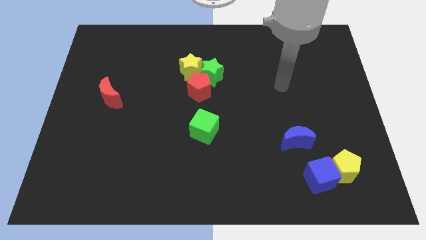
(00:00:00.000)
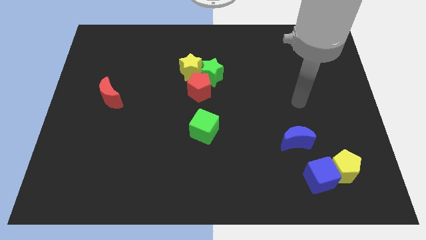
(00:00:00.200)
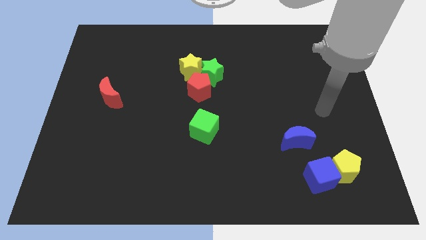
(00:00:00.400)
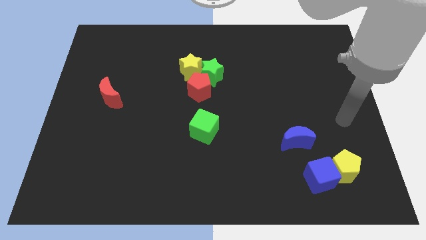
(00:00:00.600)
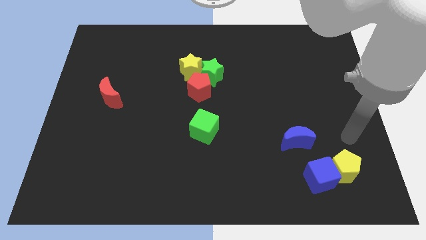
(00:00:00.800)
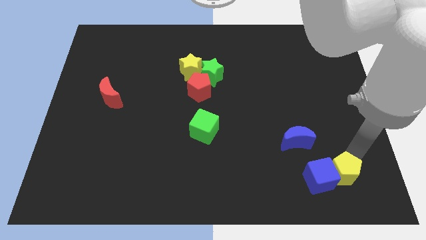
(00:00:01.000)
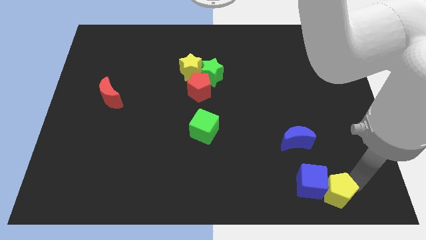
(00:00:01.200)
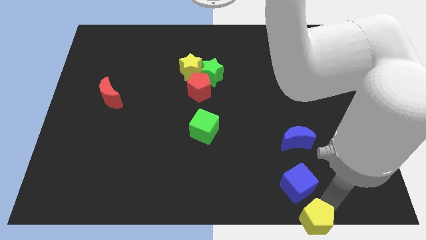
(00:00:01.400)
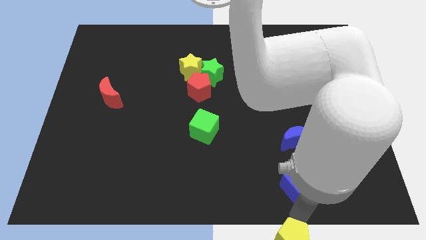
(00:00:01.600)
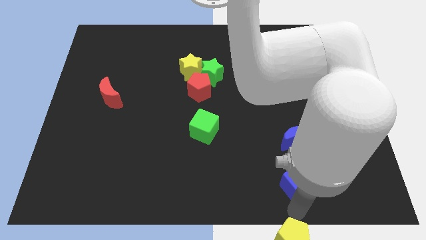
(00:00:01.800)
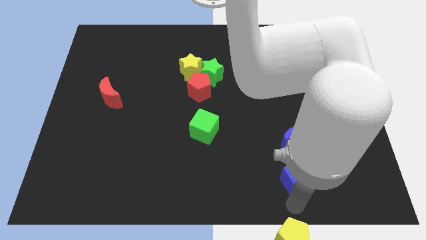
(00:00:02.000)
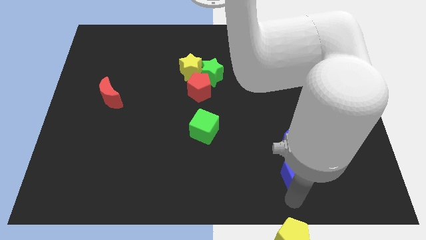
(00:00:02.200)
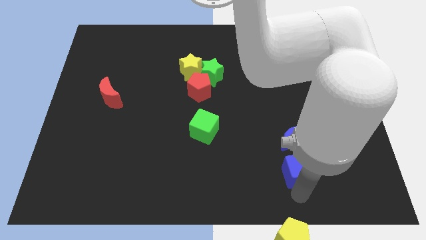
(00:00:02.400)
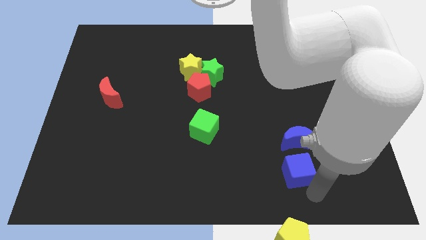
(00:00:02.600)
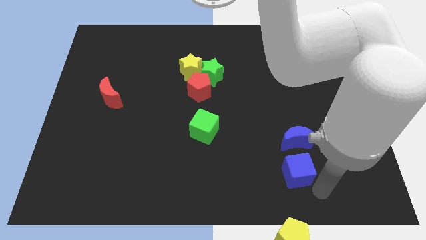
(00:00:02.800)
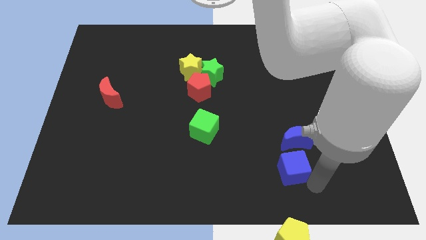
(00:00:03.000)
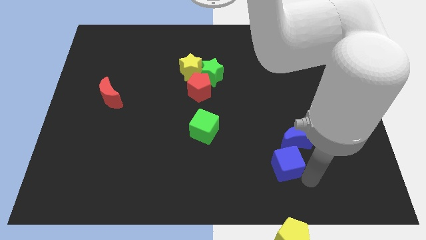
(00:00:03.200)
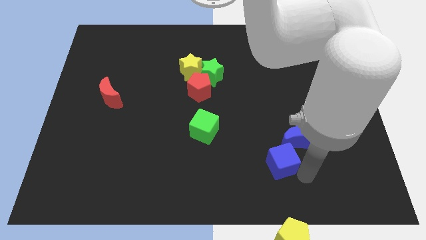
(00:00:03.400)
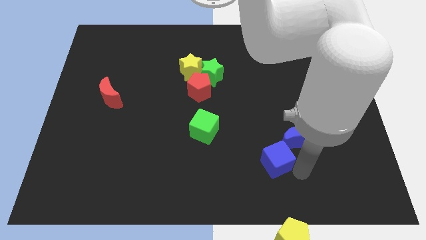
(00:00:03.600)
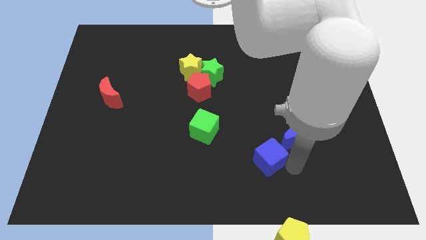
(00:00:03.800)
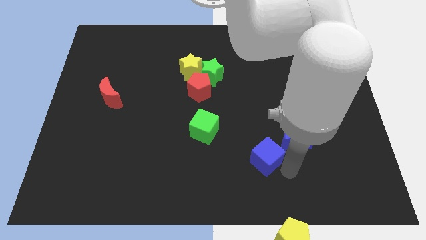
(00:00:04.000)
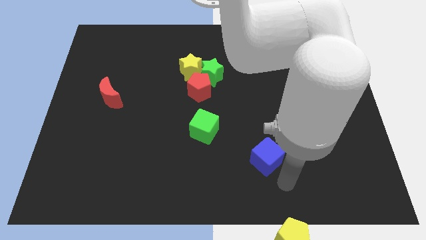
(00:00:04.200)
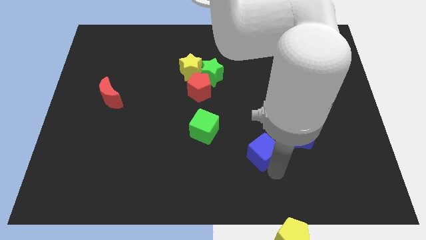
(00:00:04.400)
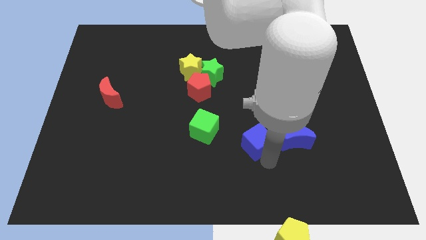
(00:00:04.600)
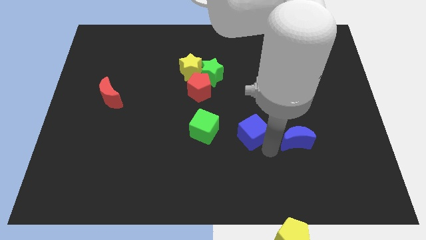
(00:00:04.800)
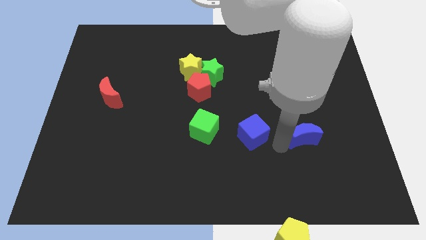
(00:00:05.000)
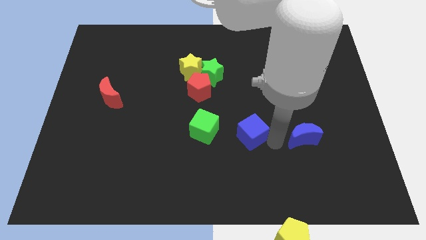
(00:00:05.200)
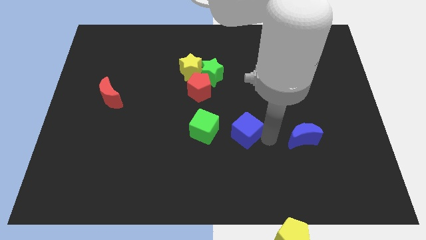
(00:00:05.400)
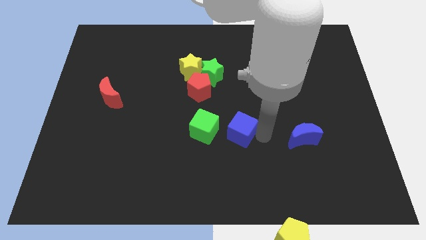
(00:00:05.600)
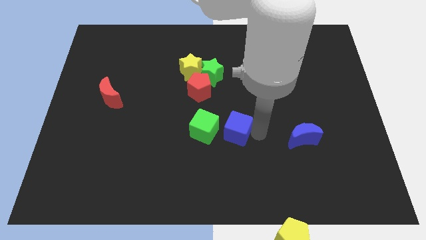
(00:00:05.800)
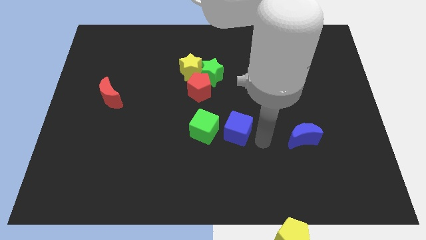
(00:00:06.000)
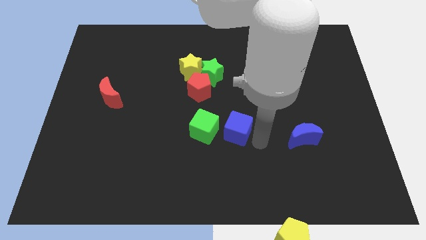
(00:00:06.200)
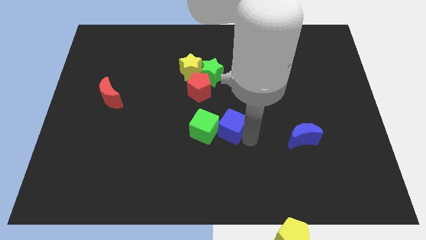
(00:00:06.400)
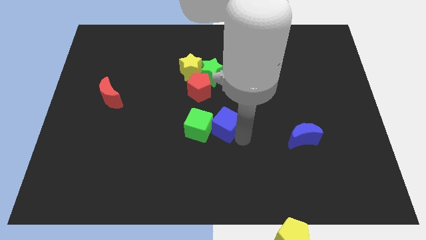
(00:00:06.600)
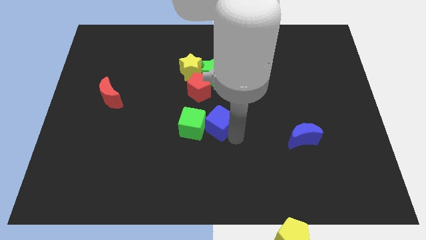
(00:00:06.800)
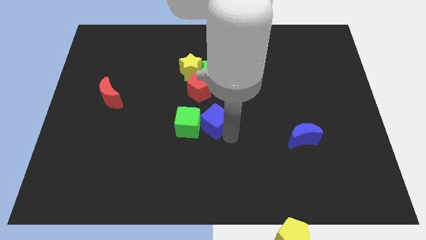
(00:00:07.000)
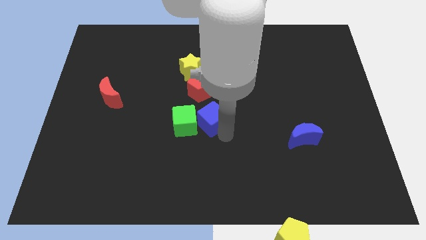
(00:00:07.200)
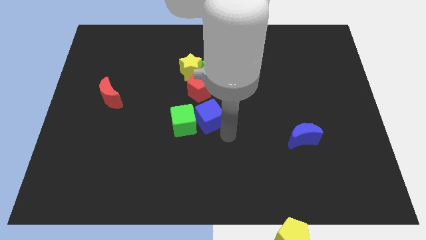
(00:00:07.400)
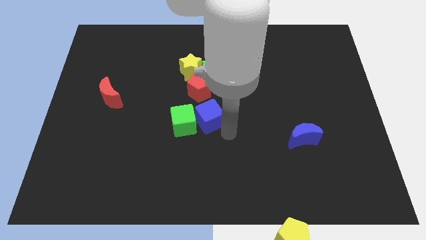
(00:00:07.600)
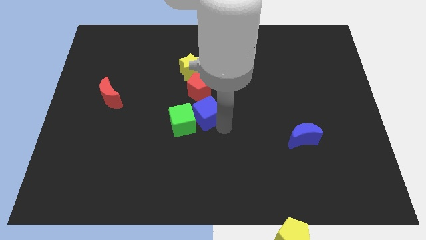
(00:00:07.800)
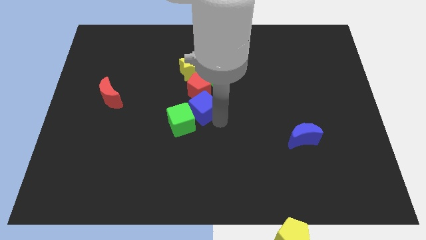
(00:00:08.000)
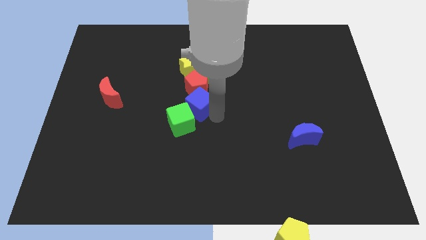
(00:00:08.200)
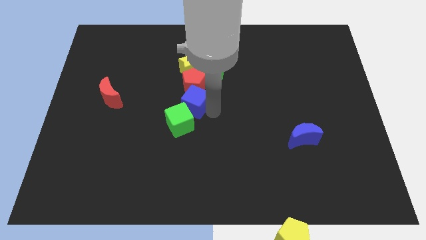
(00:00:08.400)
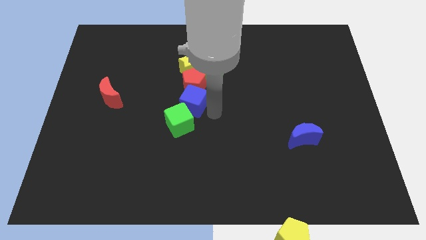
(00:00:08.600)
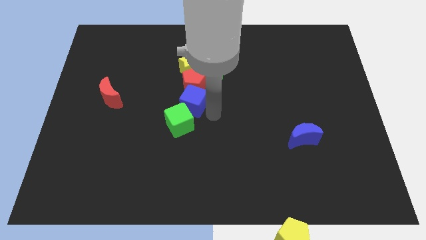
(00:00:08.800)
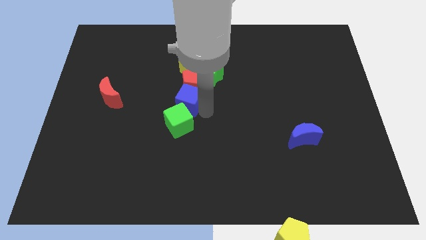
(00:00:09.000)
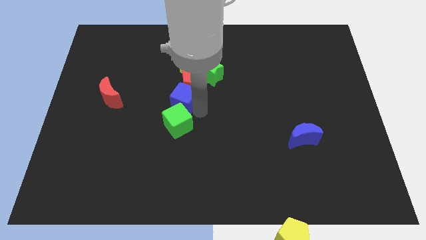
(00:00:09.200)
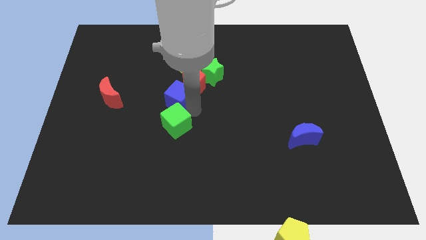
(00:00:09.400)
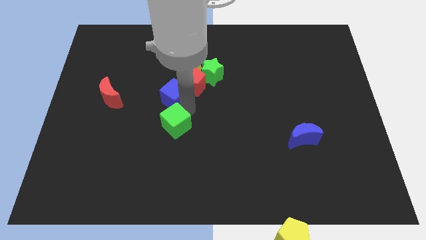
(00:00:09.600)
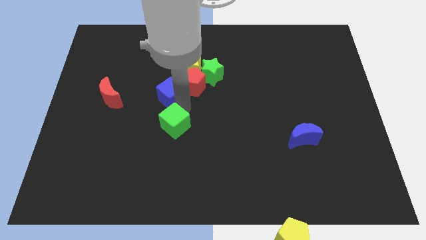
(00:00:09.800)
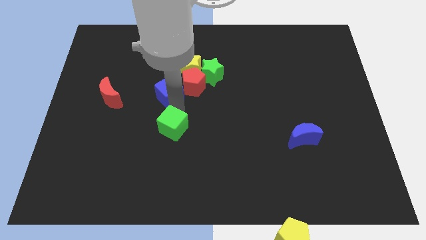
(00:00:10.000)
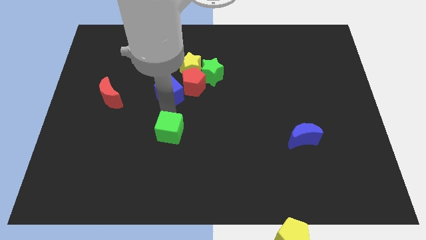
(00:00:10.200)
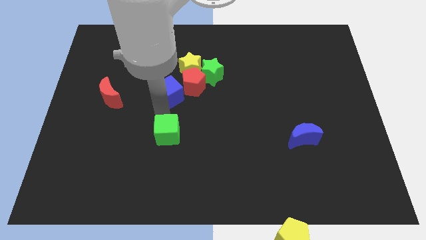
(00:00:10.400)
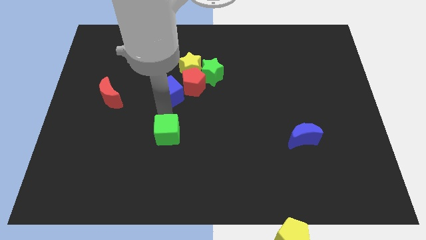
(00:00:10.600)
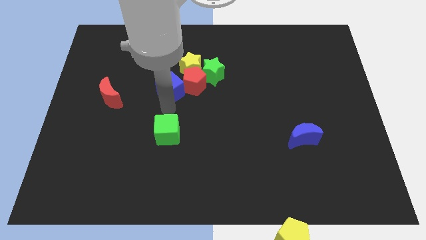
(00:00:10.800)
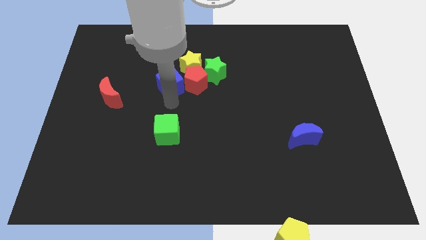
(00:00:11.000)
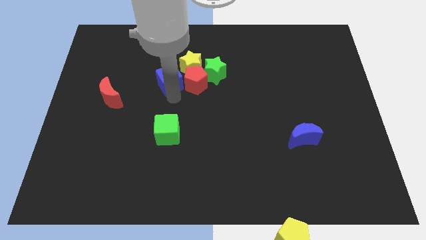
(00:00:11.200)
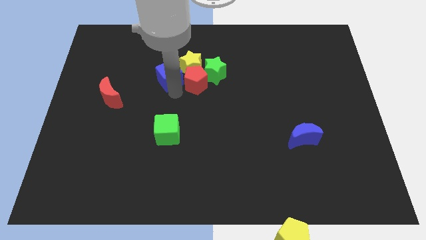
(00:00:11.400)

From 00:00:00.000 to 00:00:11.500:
slide the blue cube to the yellow star
